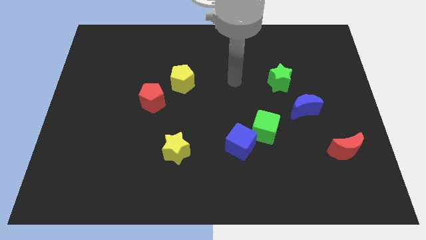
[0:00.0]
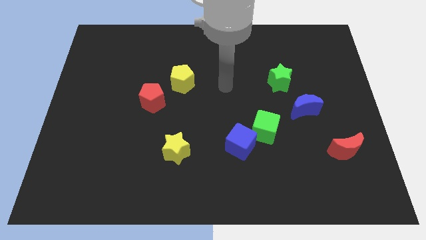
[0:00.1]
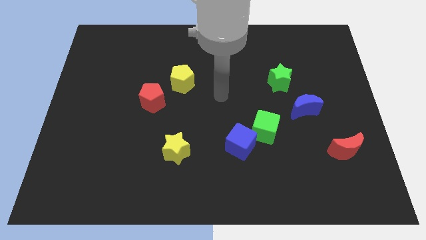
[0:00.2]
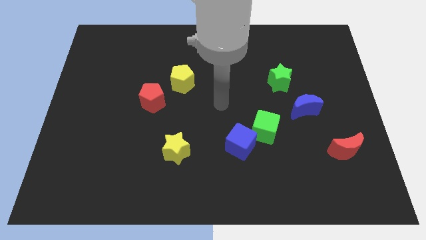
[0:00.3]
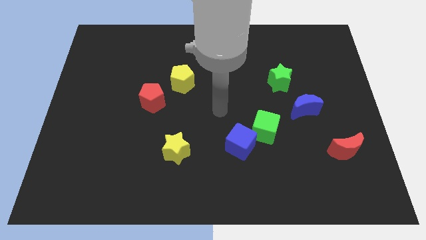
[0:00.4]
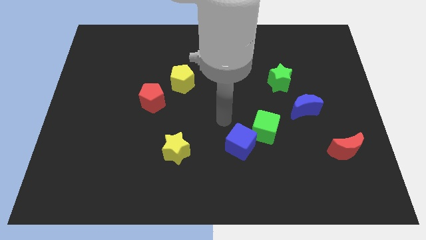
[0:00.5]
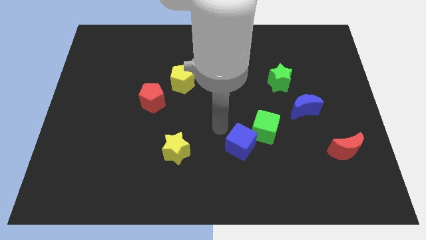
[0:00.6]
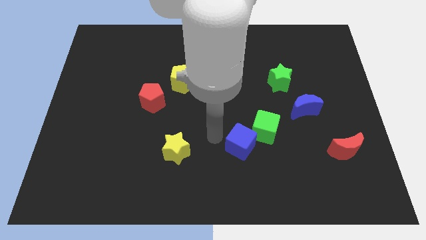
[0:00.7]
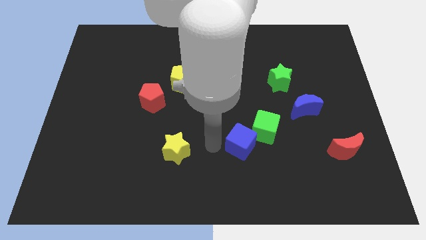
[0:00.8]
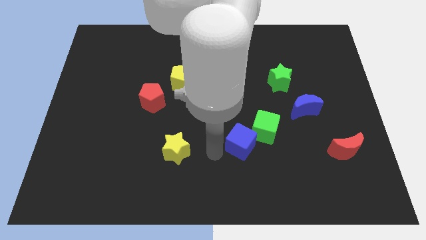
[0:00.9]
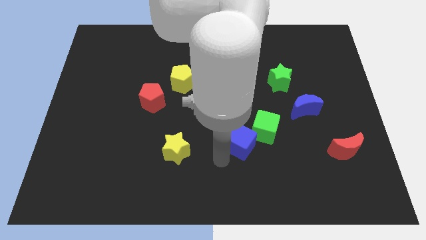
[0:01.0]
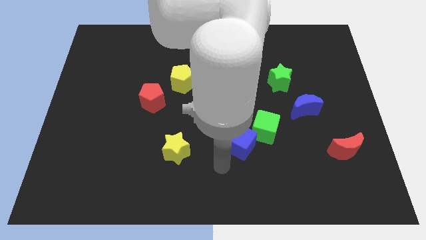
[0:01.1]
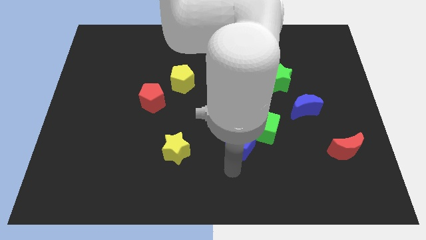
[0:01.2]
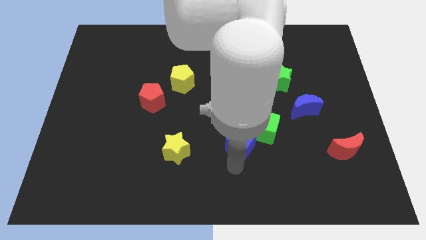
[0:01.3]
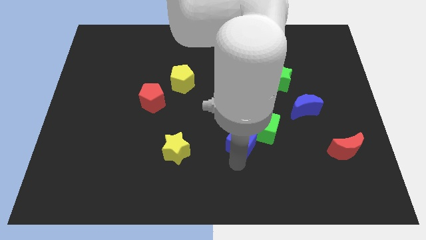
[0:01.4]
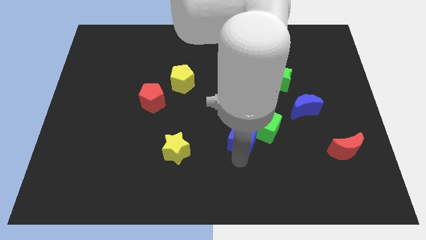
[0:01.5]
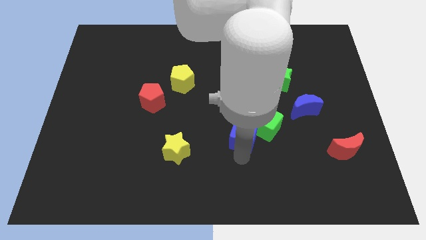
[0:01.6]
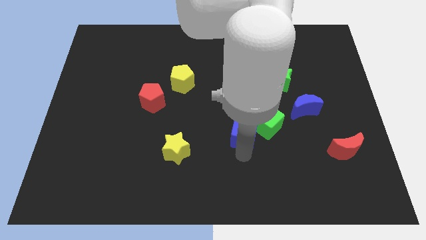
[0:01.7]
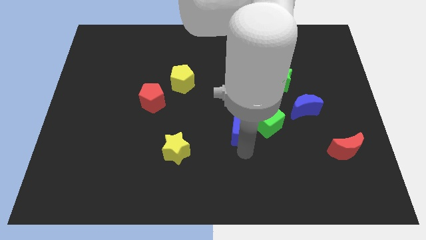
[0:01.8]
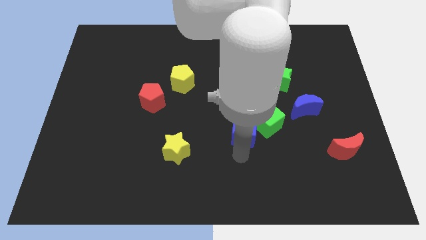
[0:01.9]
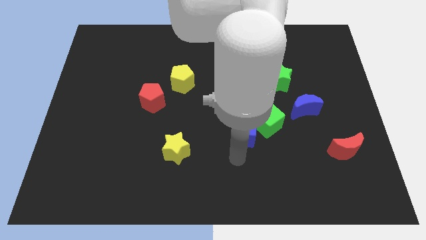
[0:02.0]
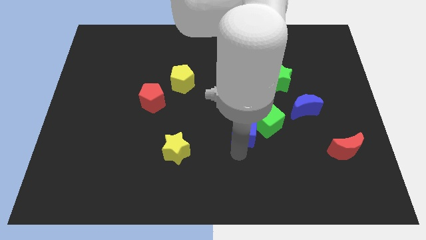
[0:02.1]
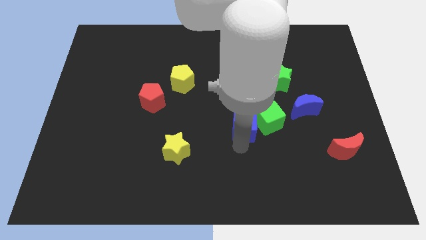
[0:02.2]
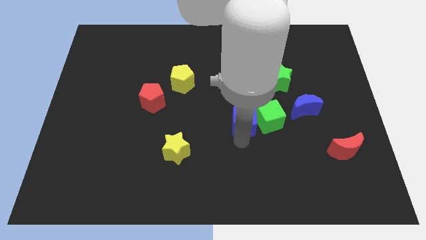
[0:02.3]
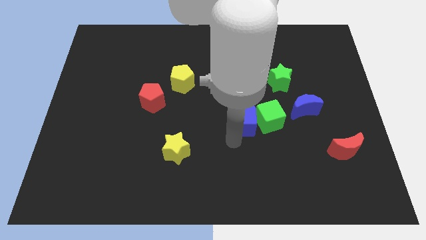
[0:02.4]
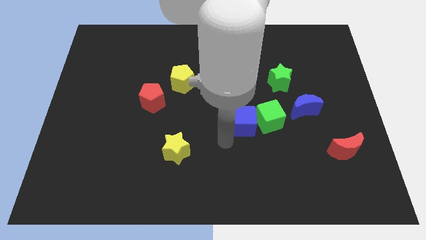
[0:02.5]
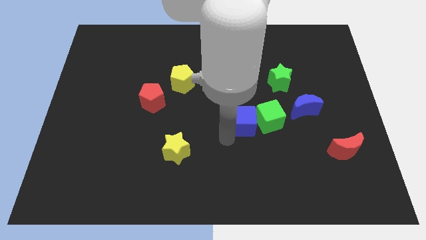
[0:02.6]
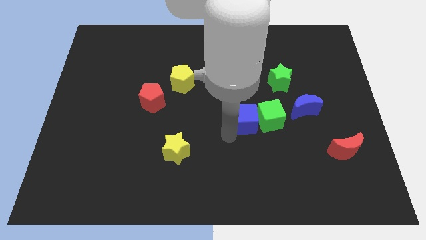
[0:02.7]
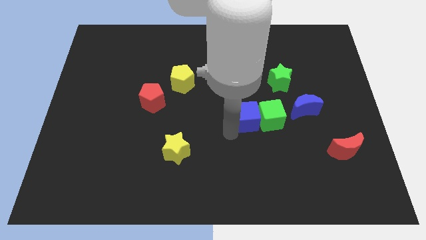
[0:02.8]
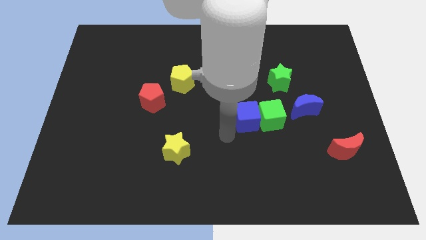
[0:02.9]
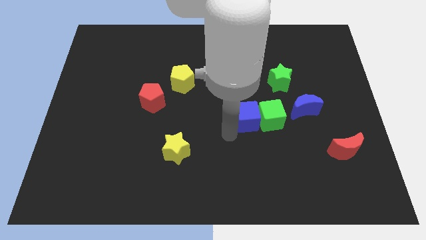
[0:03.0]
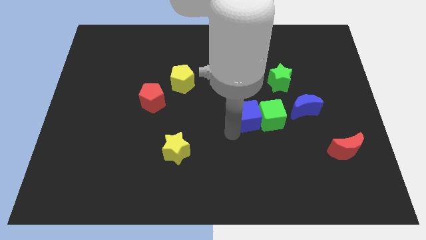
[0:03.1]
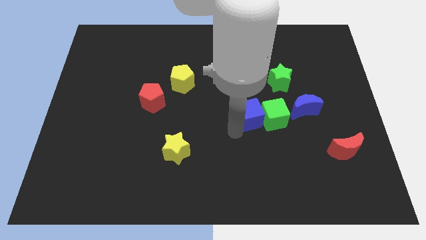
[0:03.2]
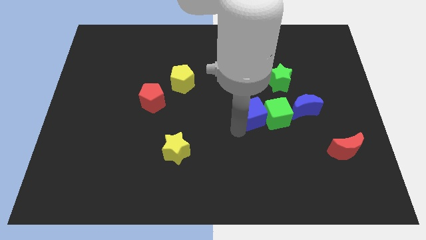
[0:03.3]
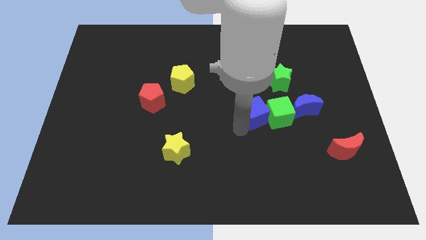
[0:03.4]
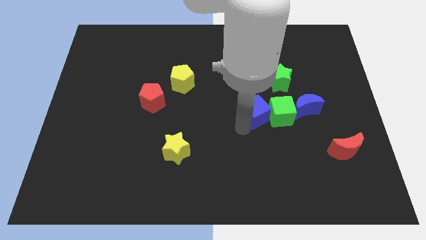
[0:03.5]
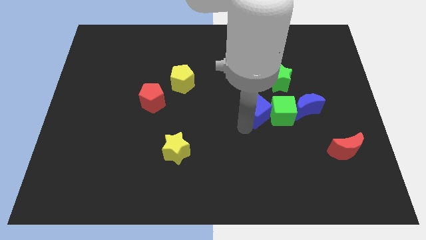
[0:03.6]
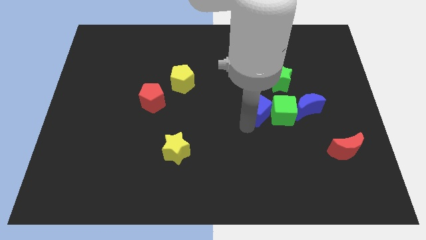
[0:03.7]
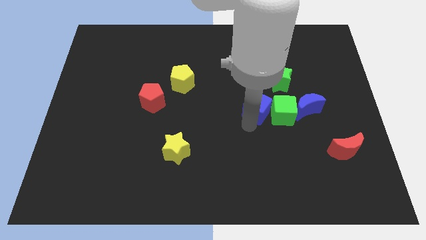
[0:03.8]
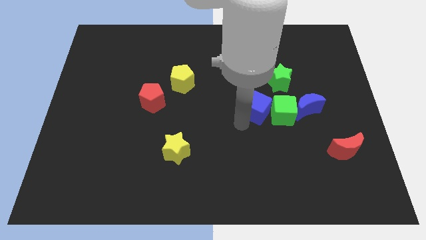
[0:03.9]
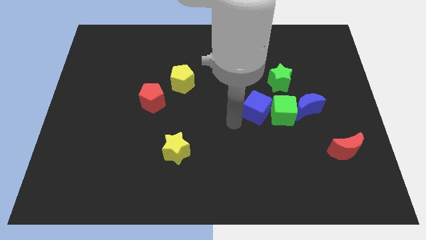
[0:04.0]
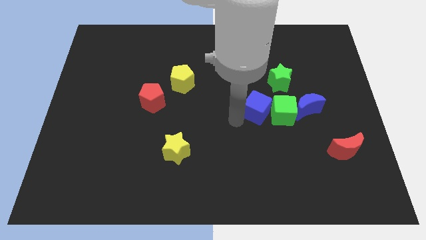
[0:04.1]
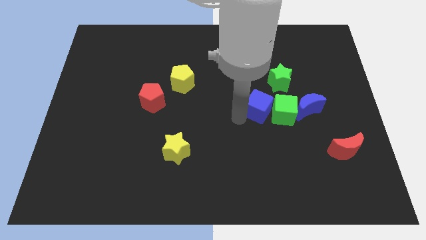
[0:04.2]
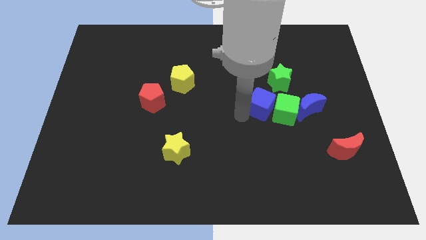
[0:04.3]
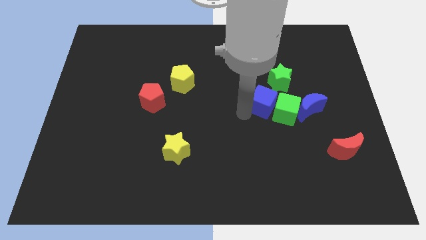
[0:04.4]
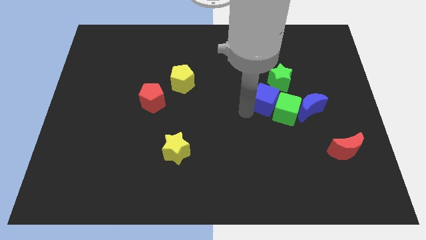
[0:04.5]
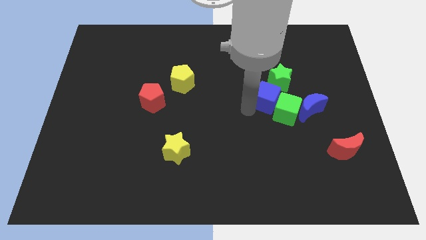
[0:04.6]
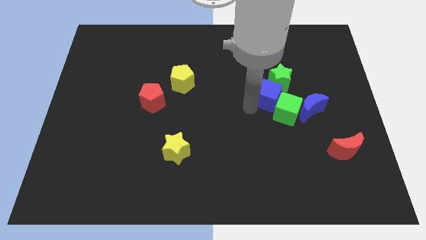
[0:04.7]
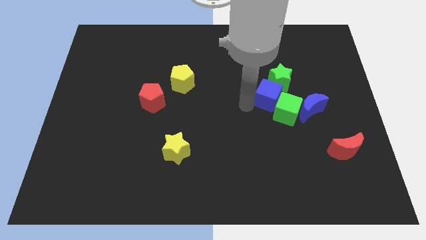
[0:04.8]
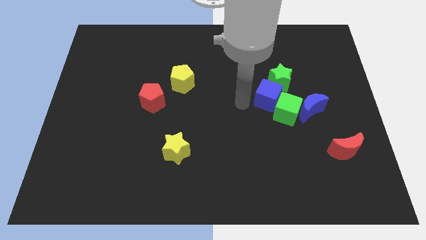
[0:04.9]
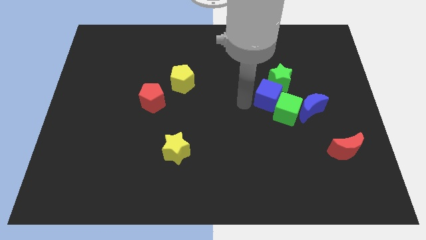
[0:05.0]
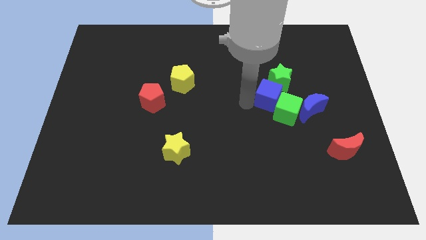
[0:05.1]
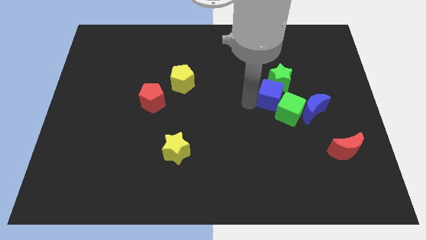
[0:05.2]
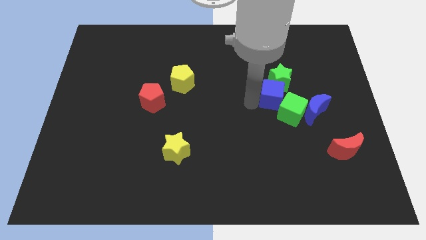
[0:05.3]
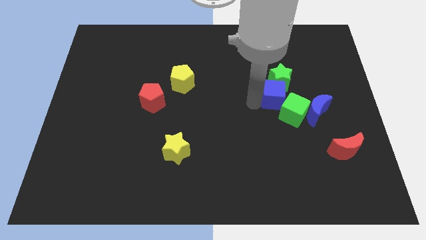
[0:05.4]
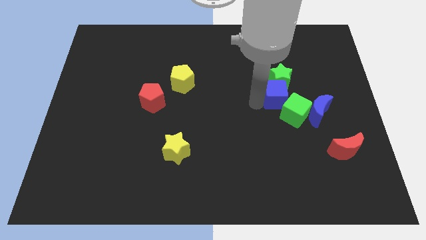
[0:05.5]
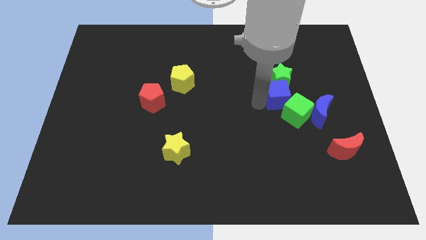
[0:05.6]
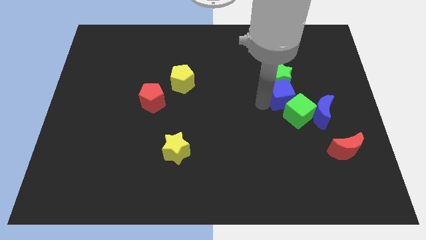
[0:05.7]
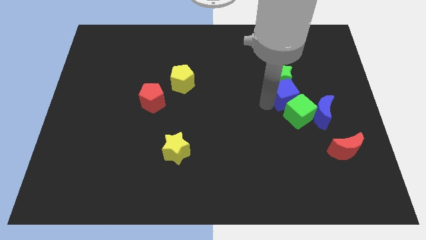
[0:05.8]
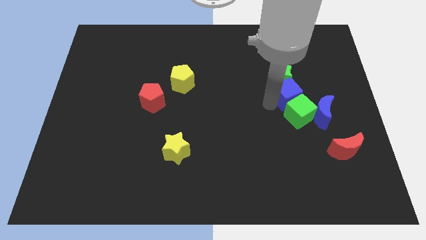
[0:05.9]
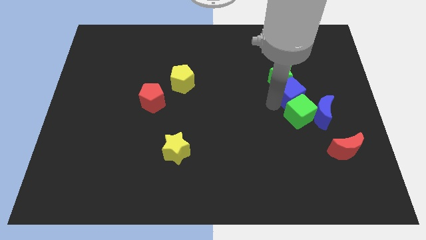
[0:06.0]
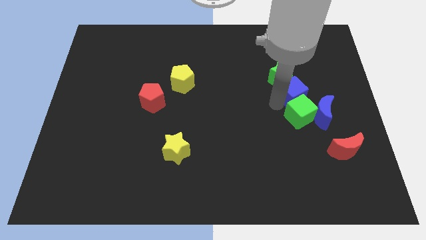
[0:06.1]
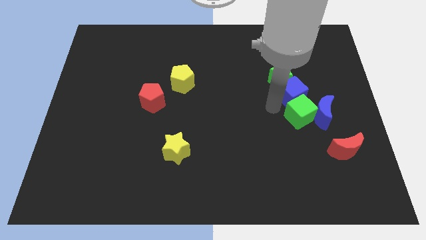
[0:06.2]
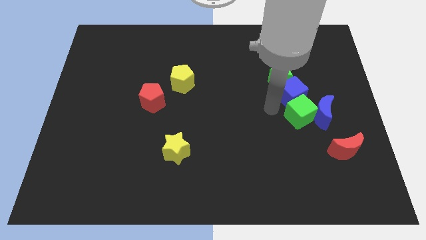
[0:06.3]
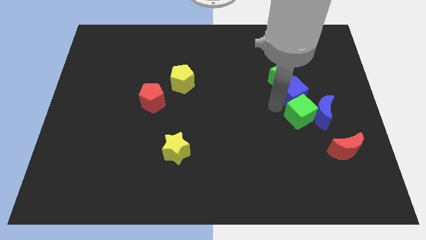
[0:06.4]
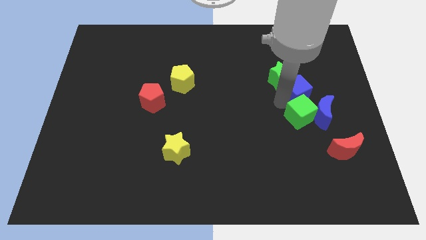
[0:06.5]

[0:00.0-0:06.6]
move the blue cube up and right diagonally

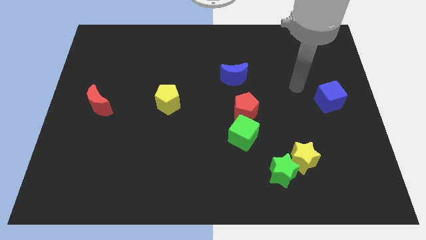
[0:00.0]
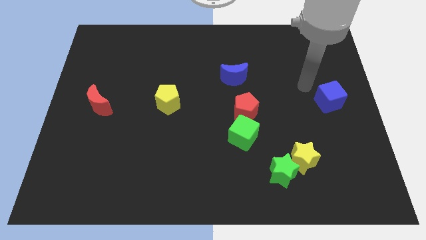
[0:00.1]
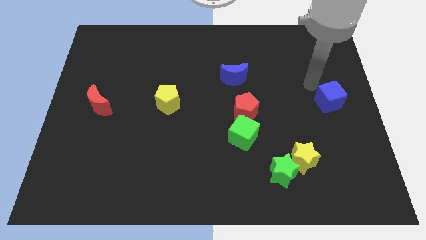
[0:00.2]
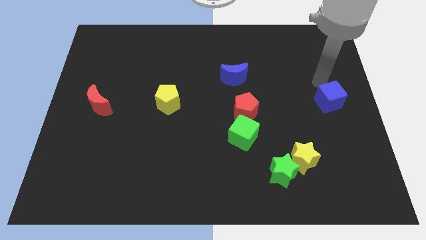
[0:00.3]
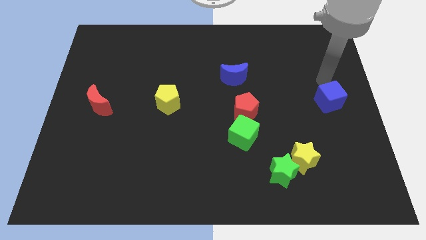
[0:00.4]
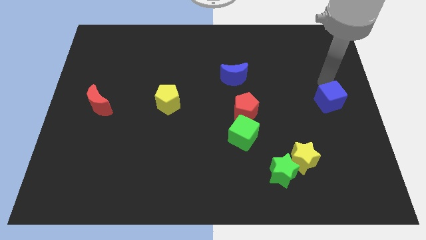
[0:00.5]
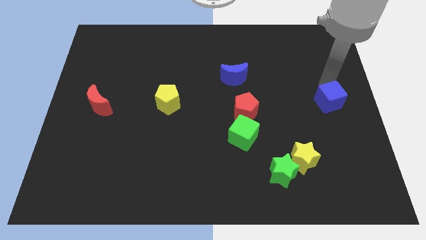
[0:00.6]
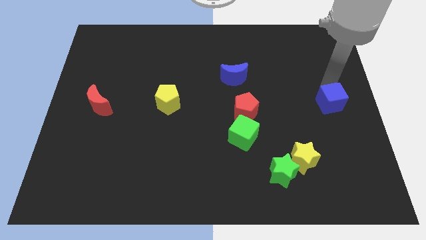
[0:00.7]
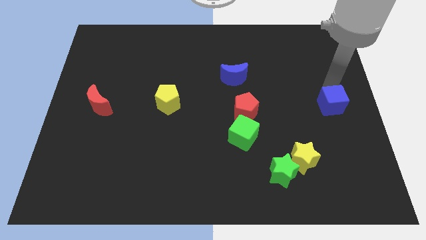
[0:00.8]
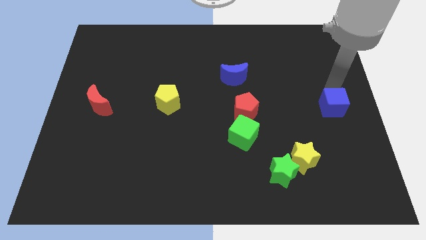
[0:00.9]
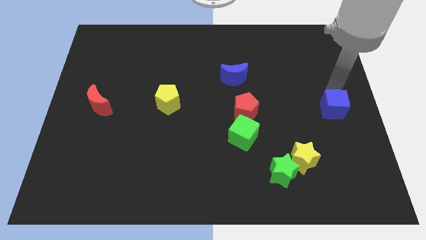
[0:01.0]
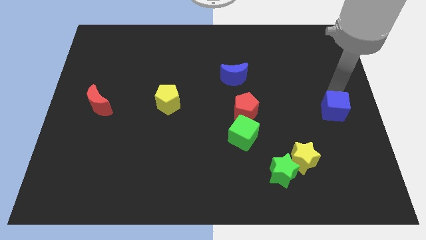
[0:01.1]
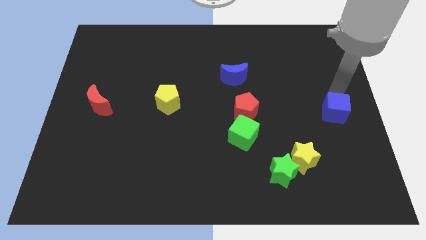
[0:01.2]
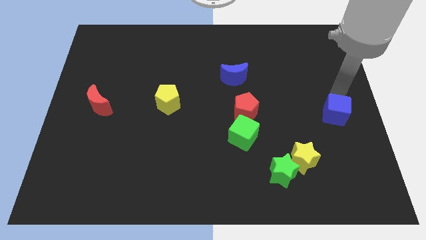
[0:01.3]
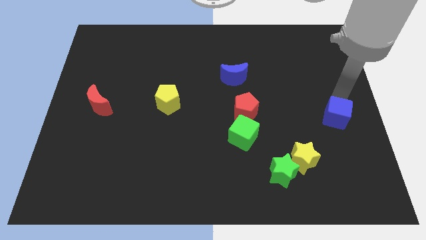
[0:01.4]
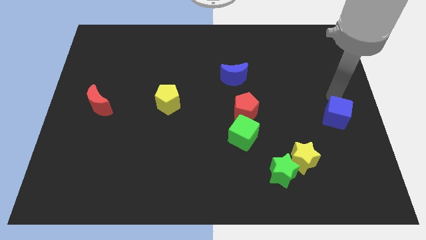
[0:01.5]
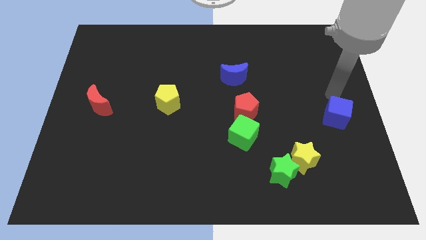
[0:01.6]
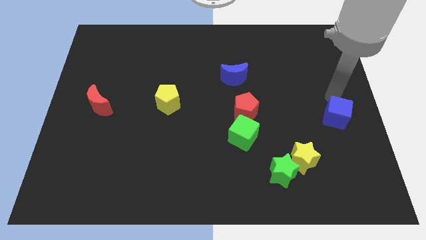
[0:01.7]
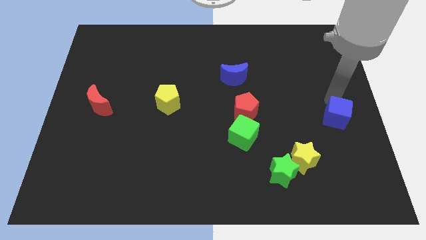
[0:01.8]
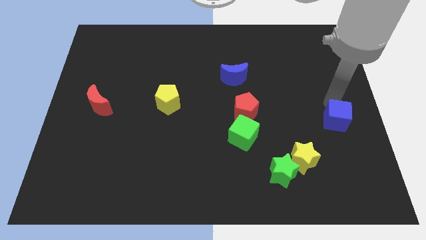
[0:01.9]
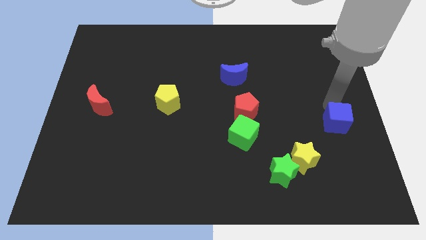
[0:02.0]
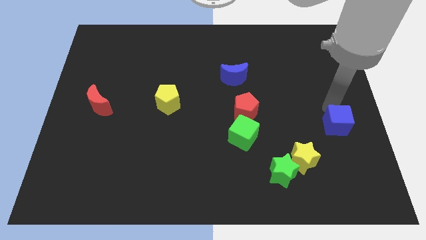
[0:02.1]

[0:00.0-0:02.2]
move the blue cube downwards somewhat
